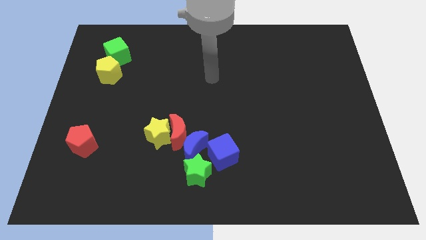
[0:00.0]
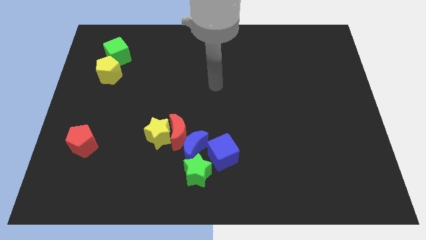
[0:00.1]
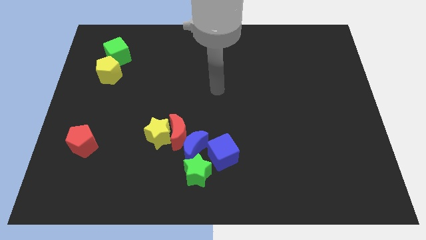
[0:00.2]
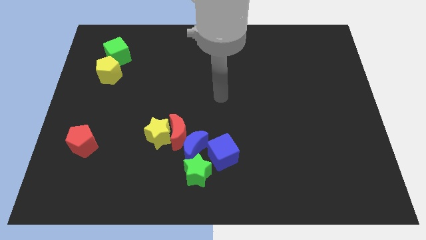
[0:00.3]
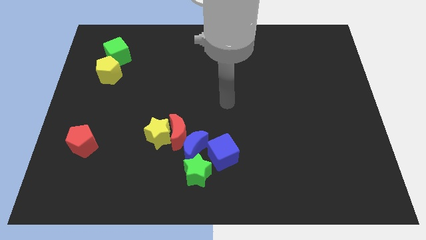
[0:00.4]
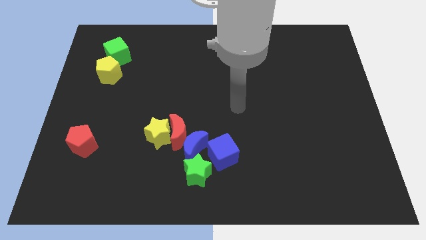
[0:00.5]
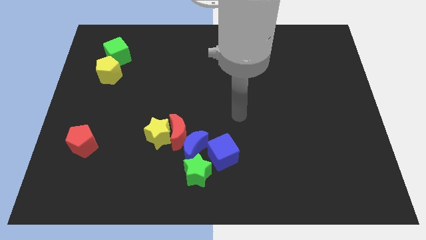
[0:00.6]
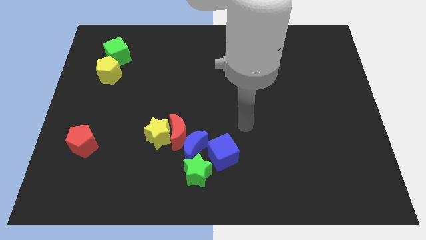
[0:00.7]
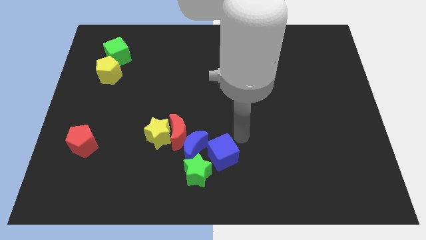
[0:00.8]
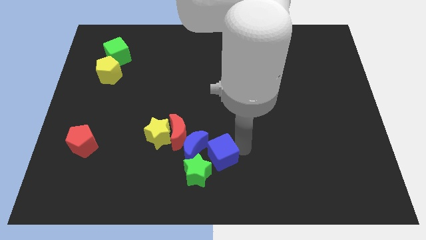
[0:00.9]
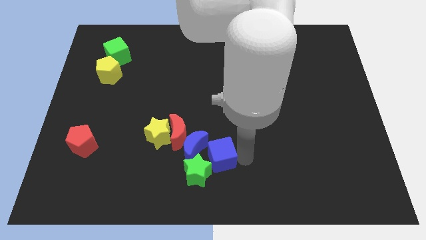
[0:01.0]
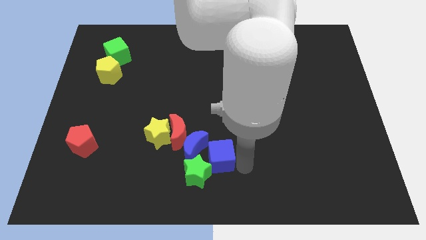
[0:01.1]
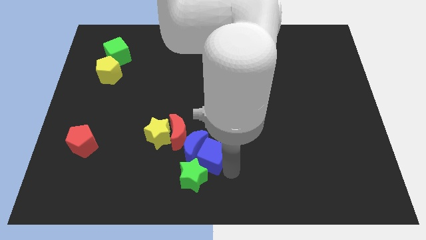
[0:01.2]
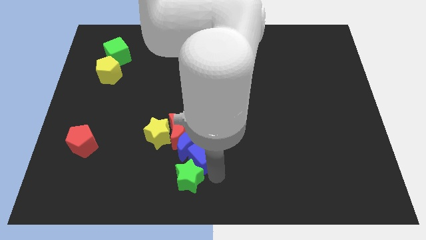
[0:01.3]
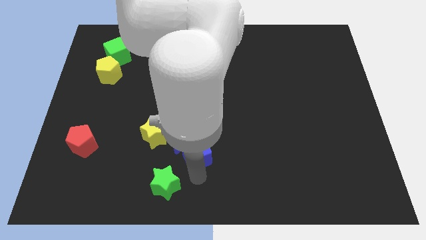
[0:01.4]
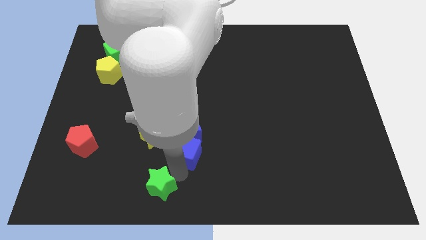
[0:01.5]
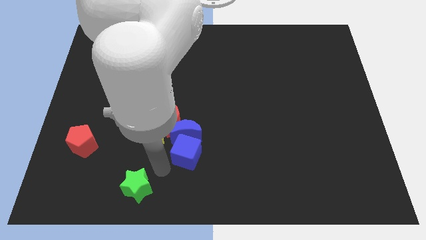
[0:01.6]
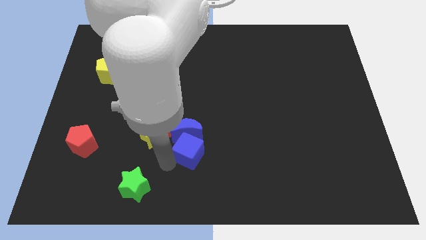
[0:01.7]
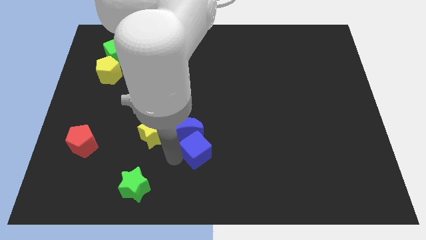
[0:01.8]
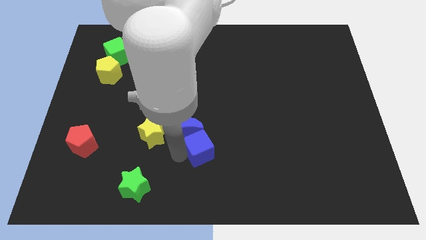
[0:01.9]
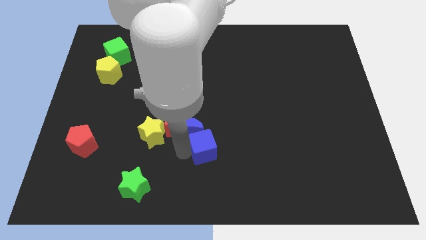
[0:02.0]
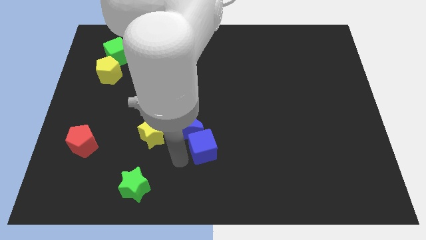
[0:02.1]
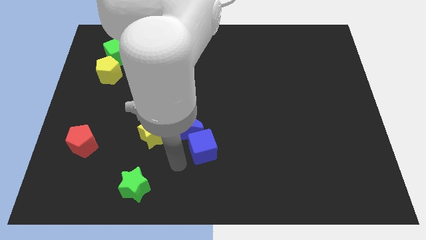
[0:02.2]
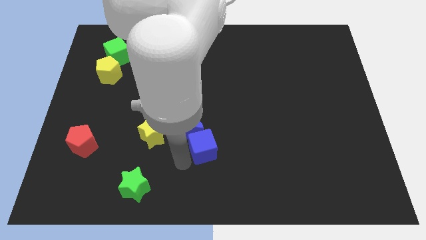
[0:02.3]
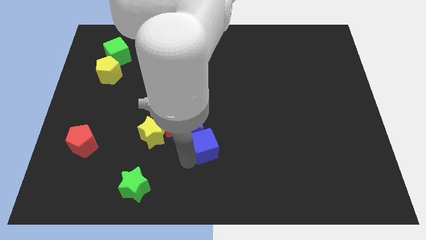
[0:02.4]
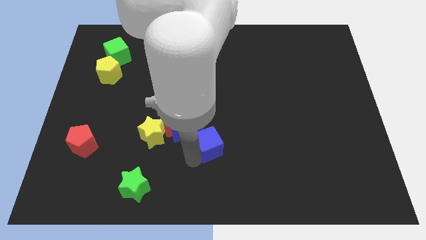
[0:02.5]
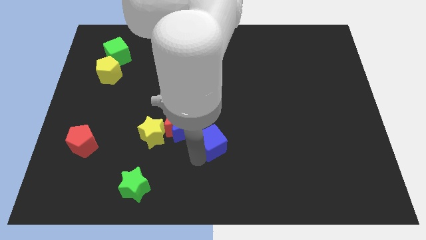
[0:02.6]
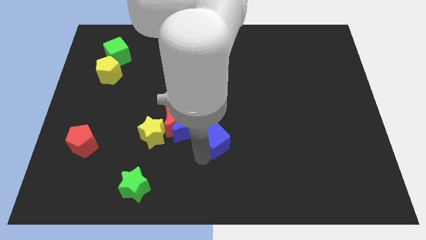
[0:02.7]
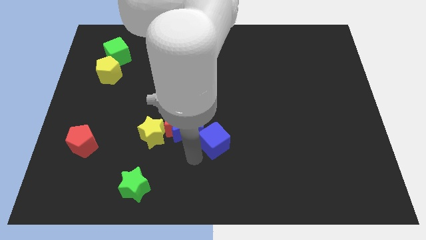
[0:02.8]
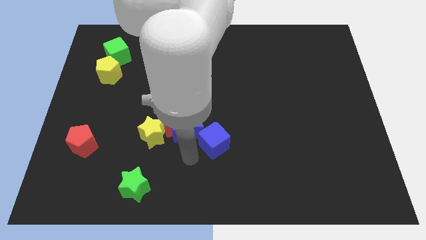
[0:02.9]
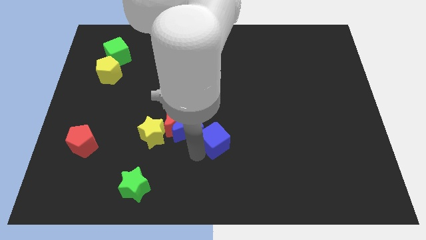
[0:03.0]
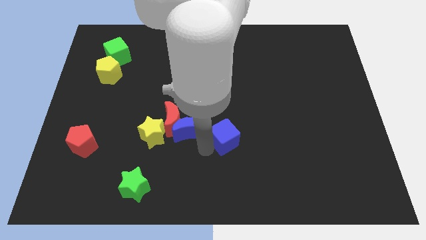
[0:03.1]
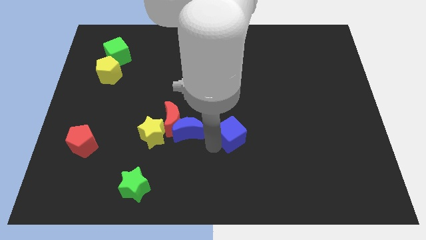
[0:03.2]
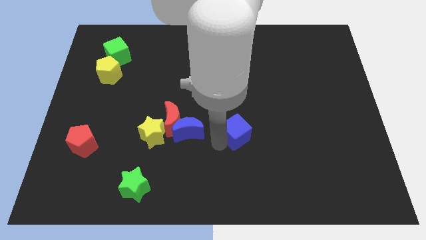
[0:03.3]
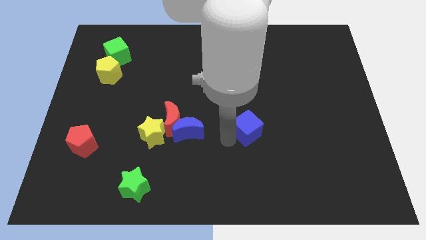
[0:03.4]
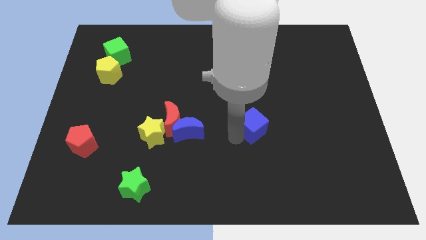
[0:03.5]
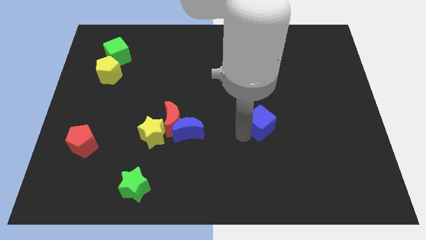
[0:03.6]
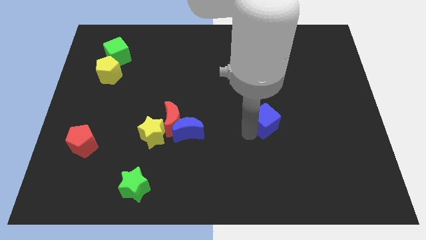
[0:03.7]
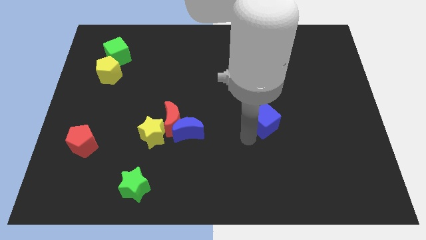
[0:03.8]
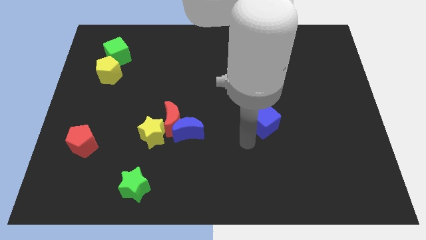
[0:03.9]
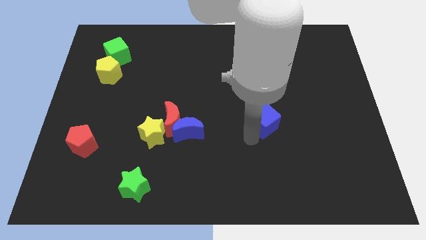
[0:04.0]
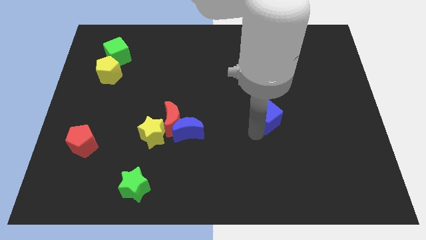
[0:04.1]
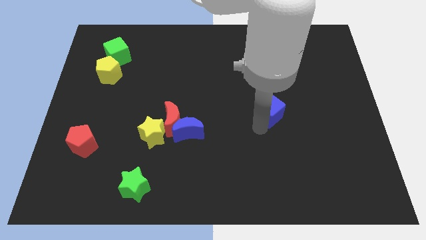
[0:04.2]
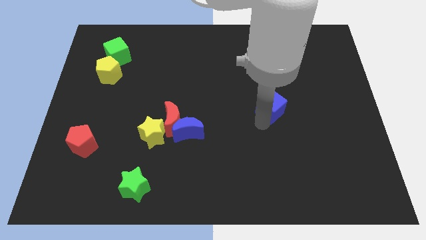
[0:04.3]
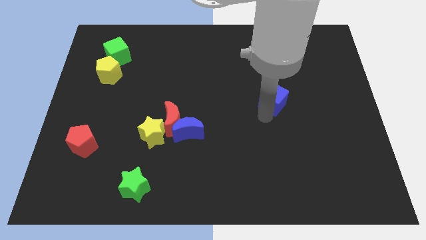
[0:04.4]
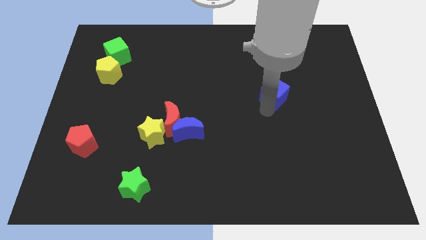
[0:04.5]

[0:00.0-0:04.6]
slide the blue cube up and then to the right

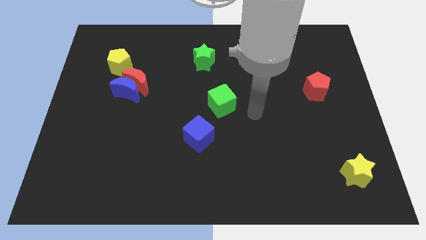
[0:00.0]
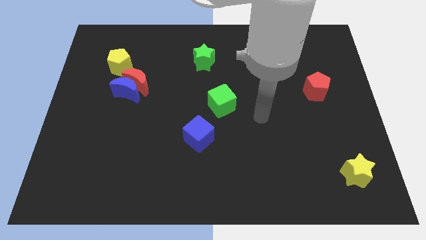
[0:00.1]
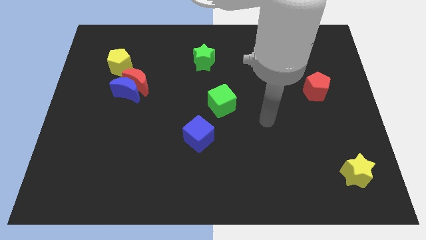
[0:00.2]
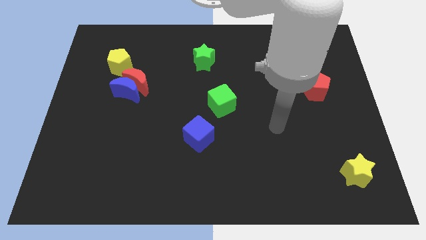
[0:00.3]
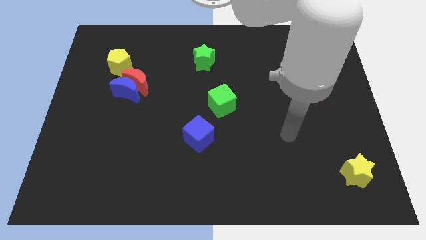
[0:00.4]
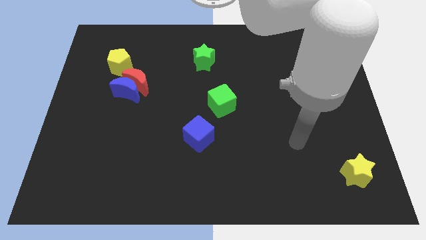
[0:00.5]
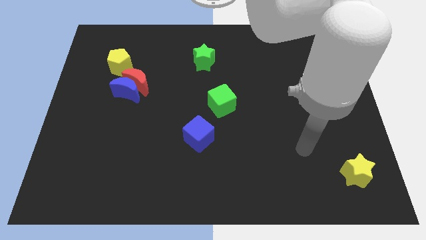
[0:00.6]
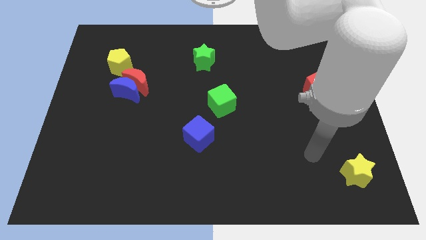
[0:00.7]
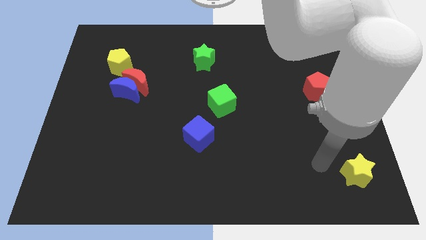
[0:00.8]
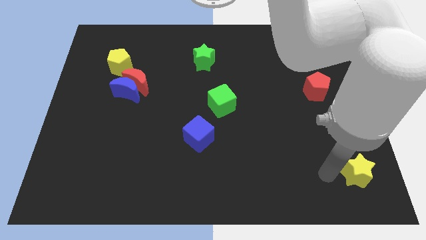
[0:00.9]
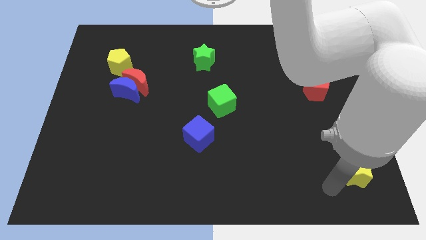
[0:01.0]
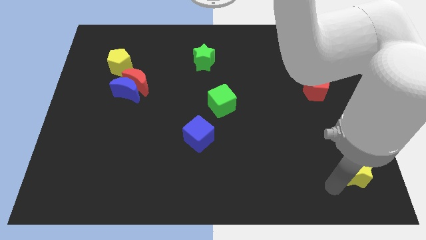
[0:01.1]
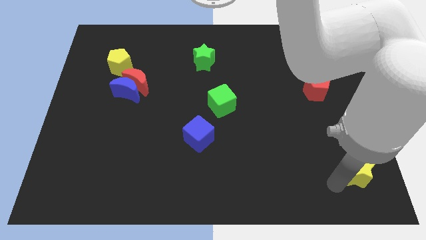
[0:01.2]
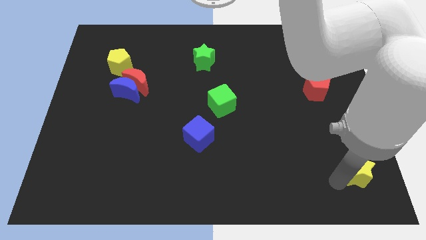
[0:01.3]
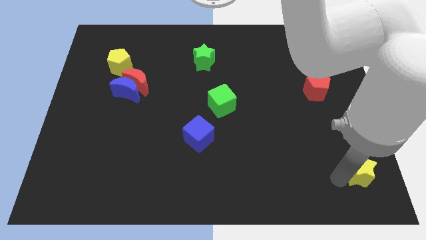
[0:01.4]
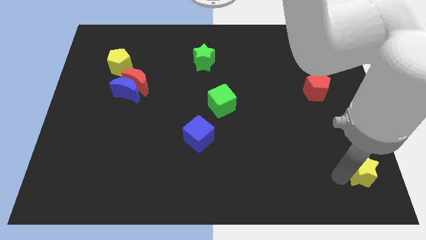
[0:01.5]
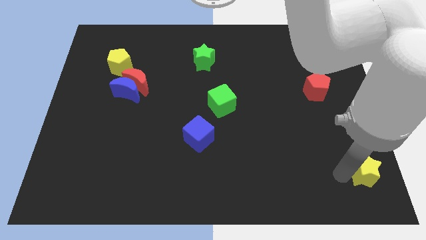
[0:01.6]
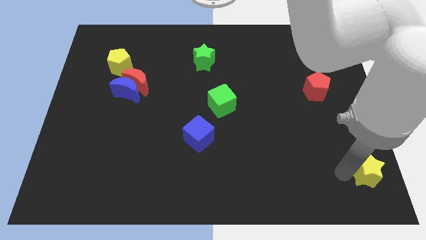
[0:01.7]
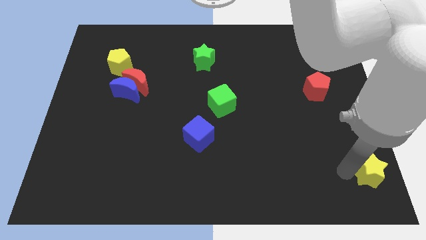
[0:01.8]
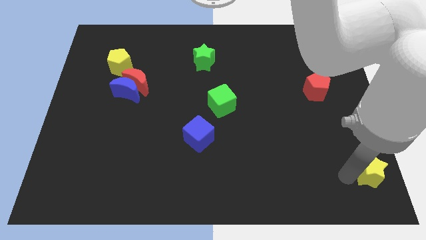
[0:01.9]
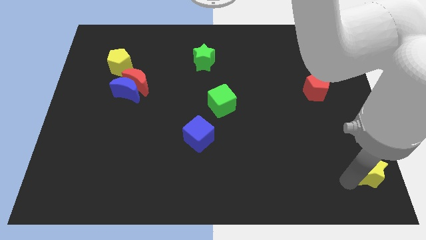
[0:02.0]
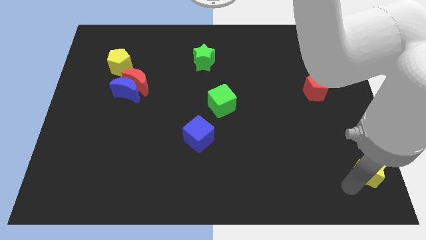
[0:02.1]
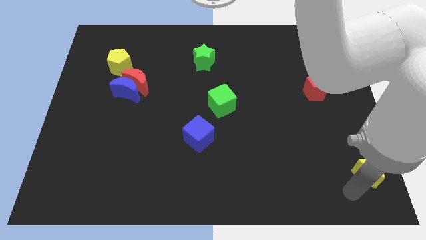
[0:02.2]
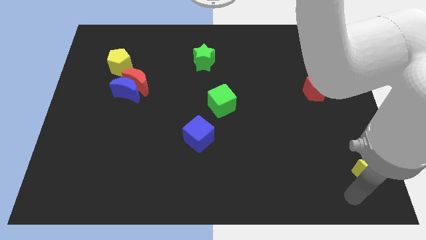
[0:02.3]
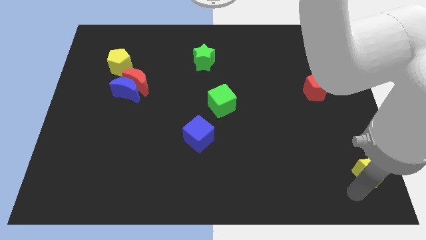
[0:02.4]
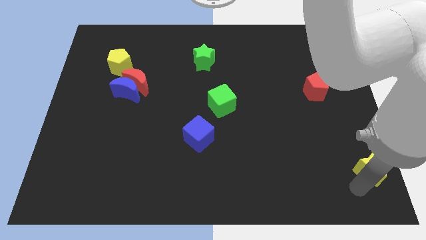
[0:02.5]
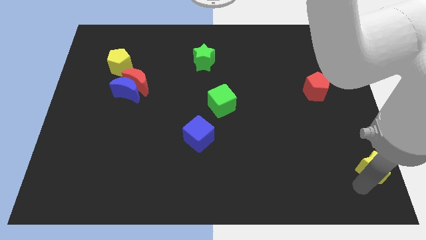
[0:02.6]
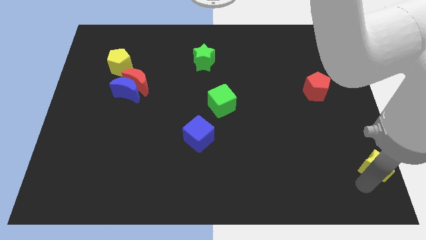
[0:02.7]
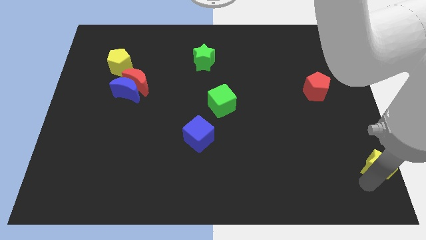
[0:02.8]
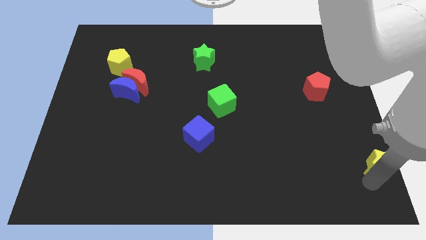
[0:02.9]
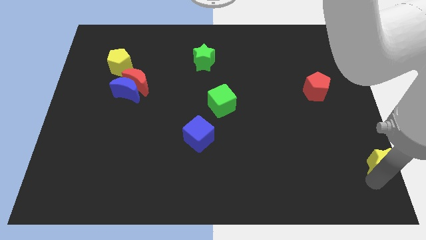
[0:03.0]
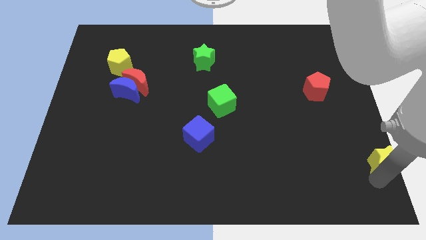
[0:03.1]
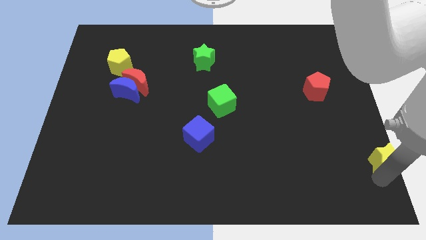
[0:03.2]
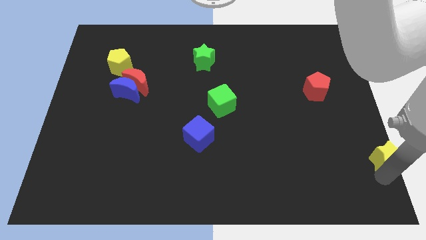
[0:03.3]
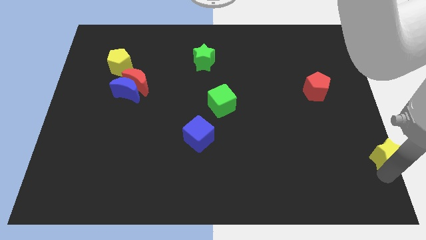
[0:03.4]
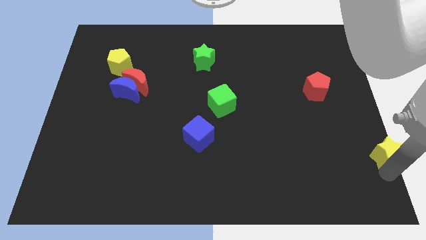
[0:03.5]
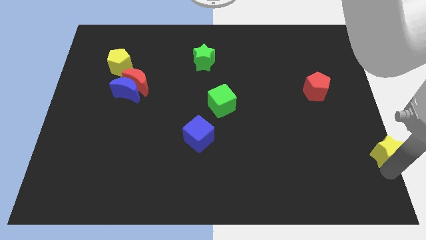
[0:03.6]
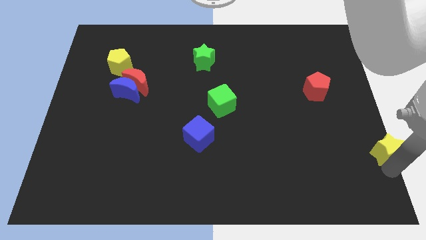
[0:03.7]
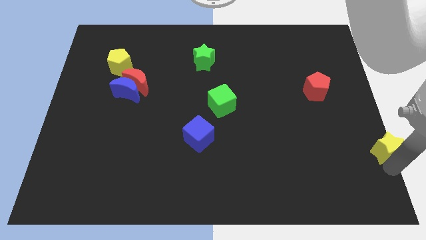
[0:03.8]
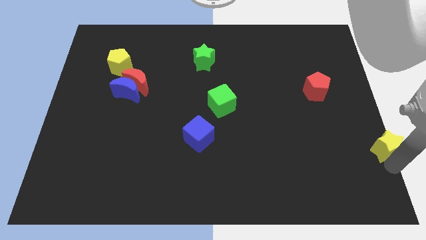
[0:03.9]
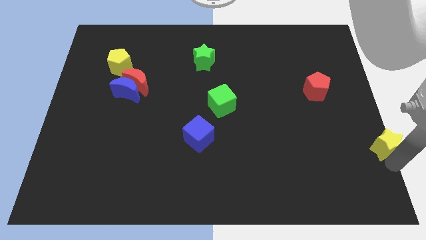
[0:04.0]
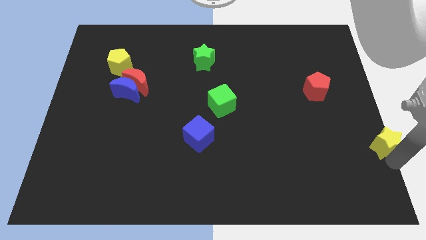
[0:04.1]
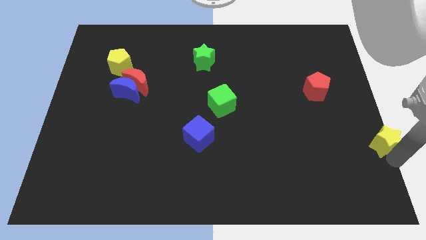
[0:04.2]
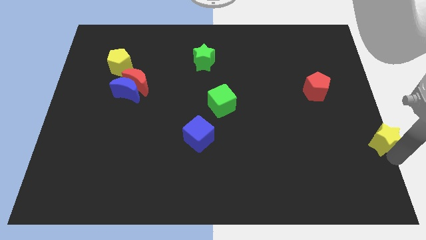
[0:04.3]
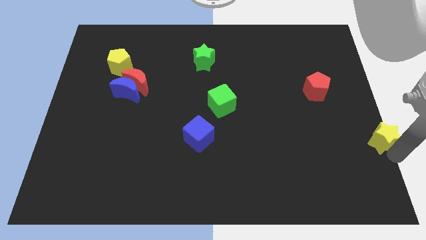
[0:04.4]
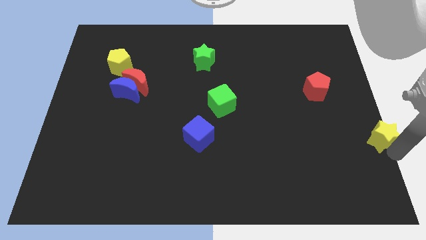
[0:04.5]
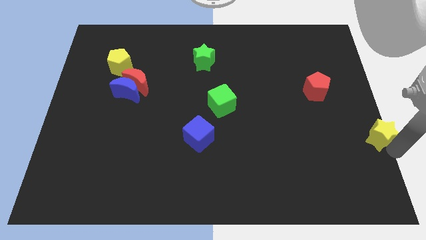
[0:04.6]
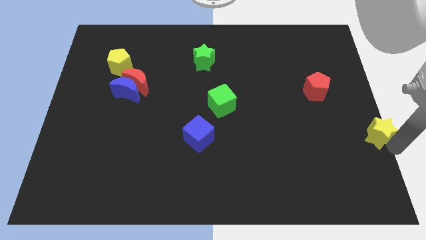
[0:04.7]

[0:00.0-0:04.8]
slightly move the yellow star upwards
